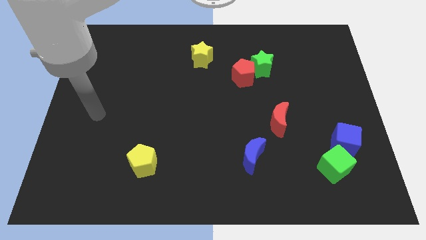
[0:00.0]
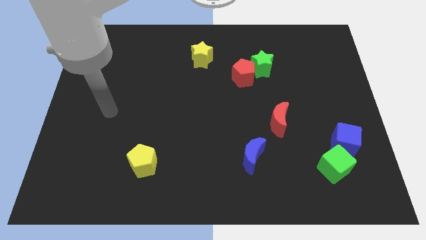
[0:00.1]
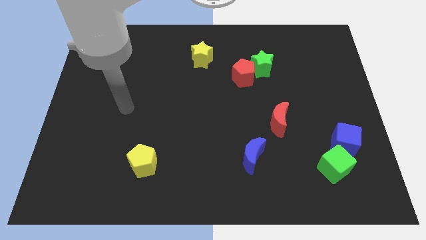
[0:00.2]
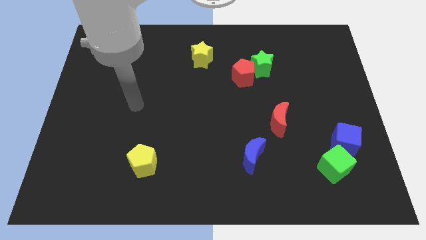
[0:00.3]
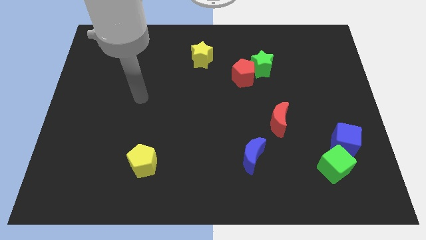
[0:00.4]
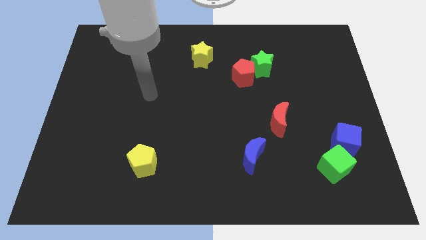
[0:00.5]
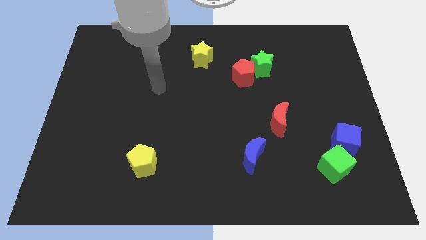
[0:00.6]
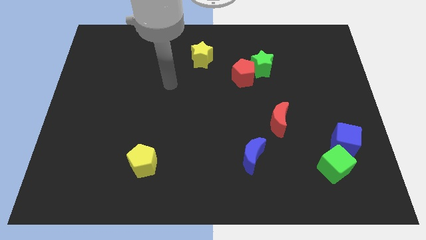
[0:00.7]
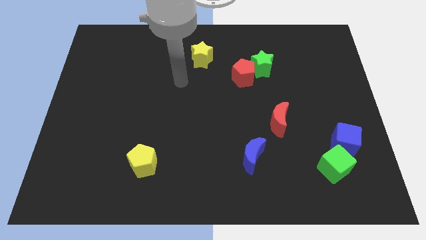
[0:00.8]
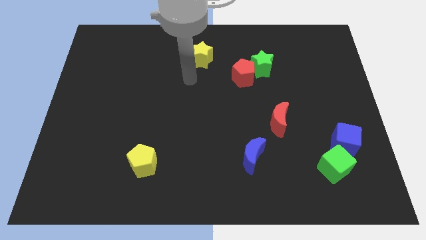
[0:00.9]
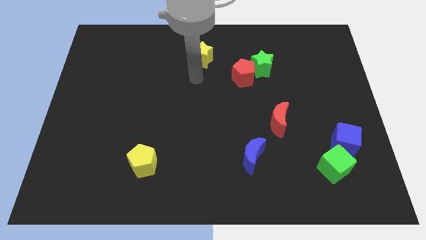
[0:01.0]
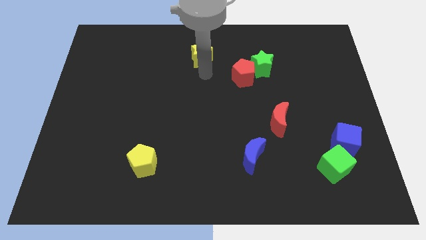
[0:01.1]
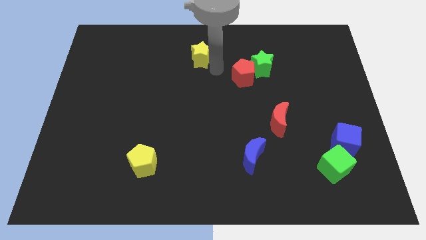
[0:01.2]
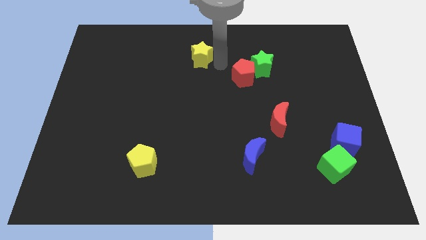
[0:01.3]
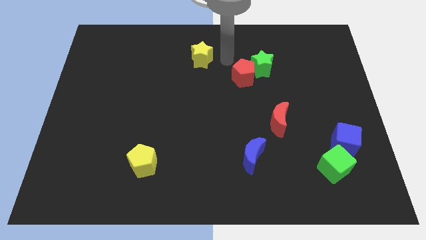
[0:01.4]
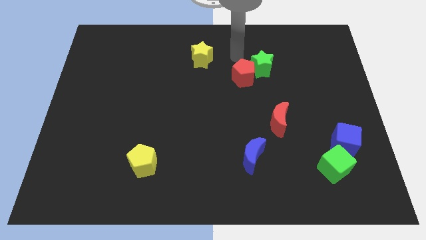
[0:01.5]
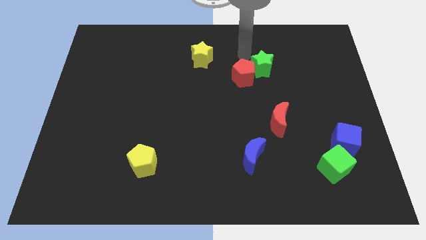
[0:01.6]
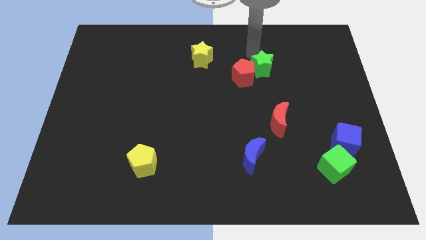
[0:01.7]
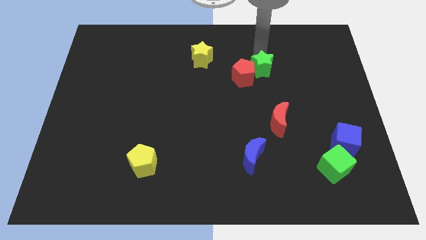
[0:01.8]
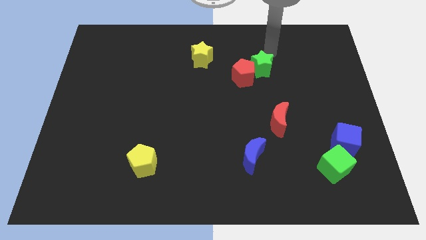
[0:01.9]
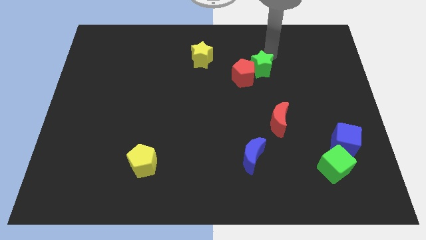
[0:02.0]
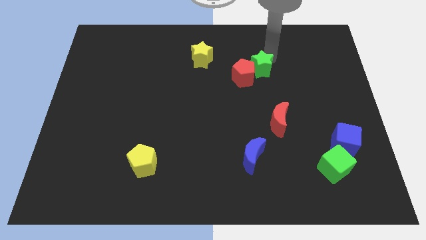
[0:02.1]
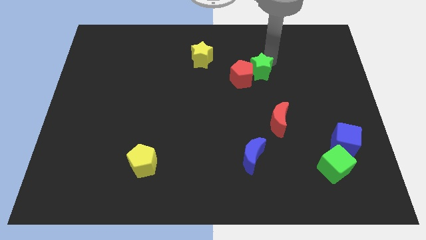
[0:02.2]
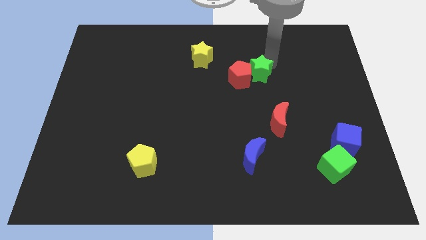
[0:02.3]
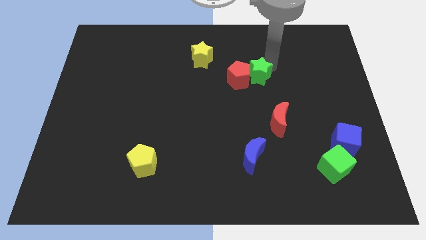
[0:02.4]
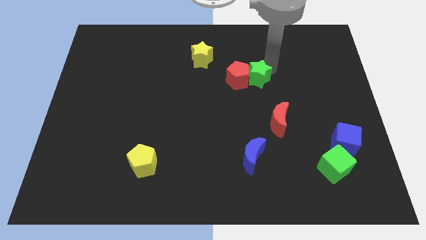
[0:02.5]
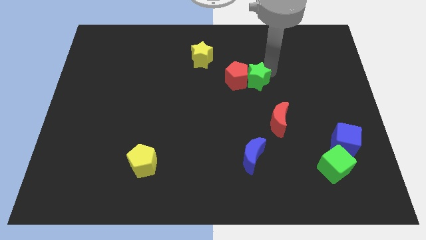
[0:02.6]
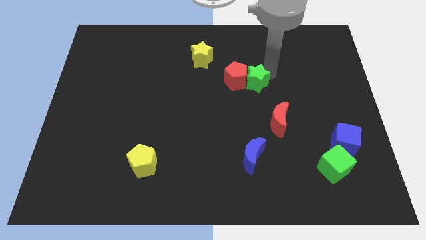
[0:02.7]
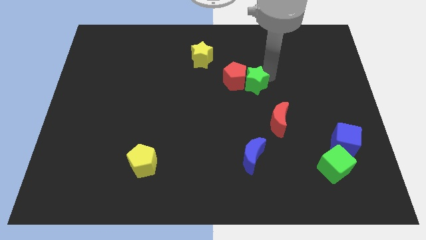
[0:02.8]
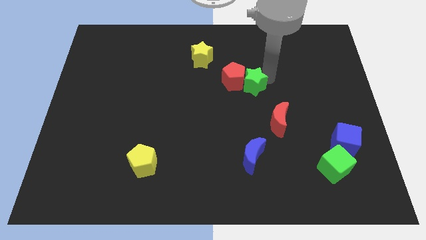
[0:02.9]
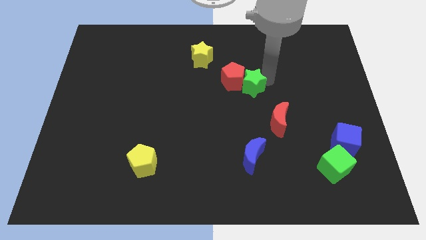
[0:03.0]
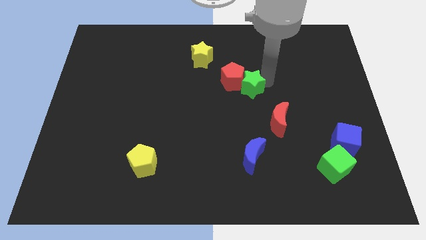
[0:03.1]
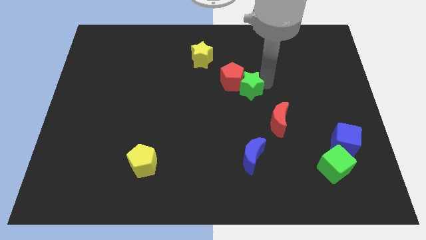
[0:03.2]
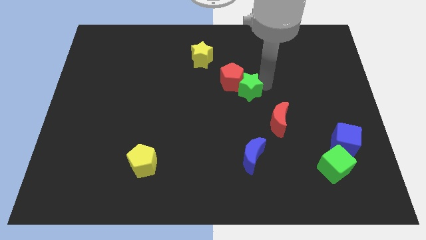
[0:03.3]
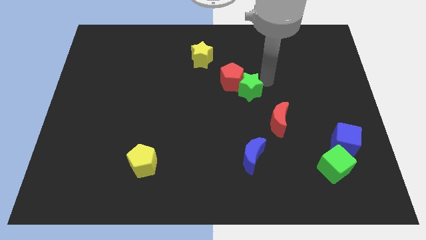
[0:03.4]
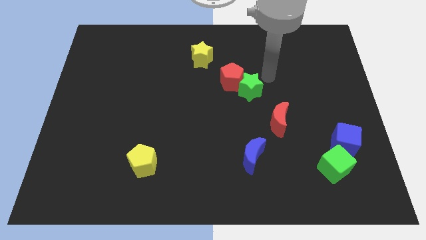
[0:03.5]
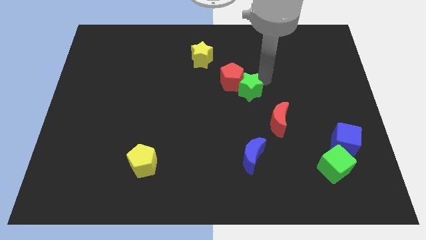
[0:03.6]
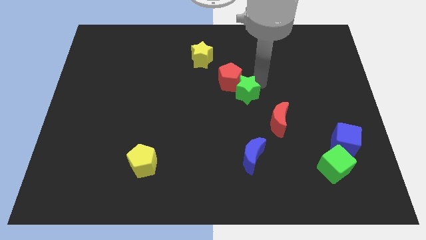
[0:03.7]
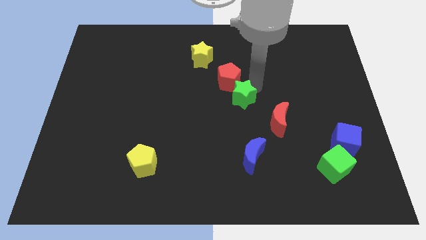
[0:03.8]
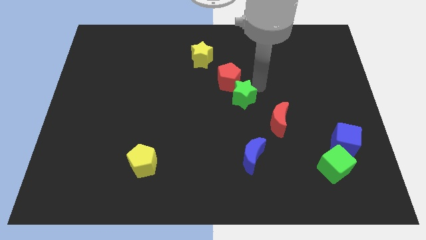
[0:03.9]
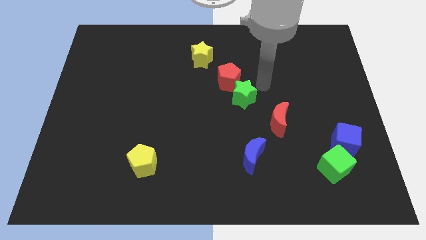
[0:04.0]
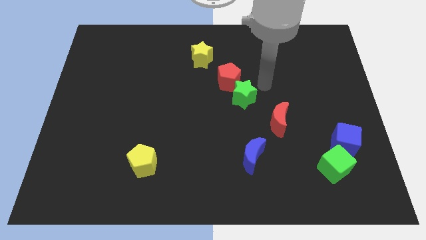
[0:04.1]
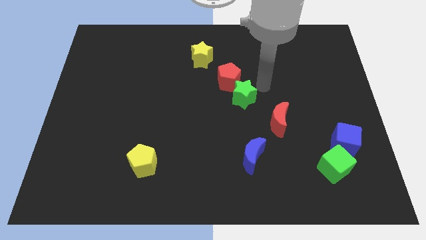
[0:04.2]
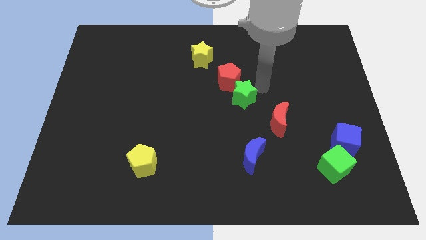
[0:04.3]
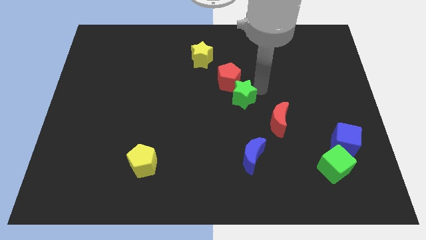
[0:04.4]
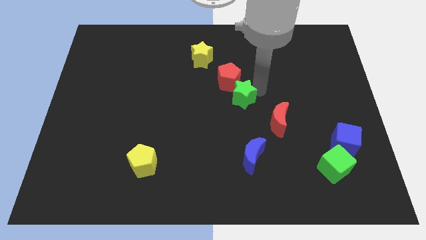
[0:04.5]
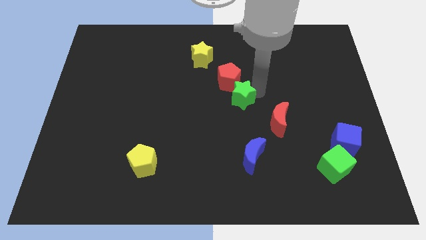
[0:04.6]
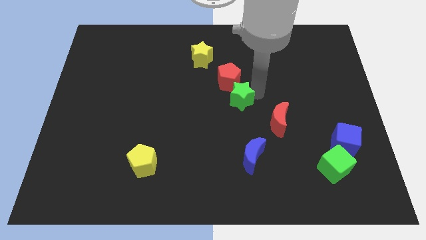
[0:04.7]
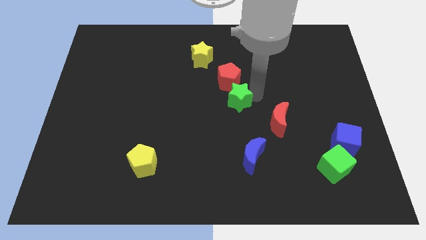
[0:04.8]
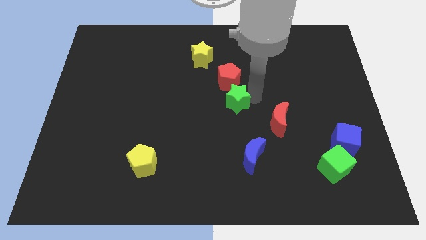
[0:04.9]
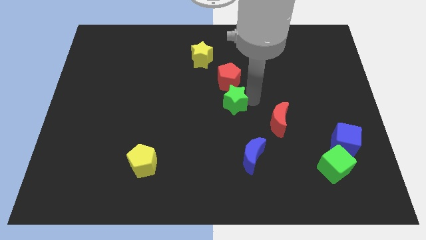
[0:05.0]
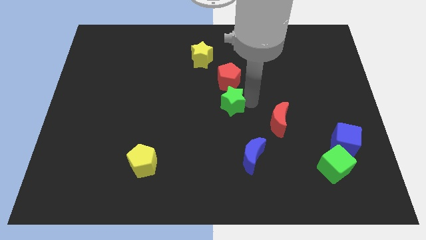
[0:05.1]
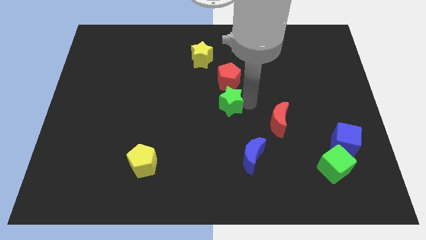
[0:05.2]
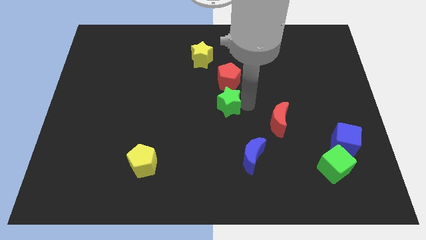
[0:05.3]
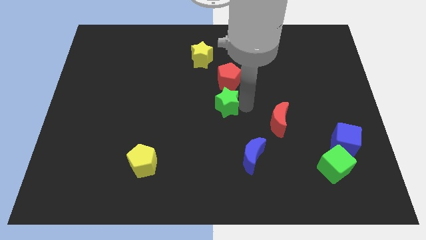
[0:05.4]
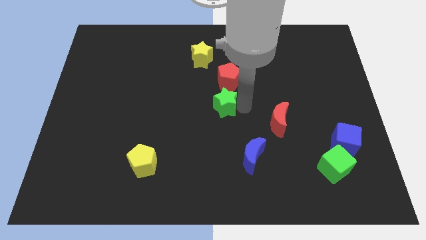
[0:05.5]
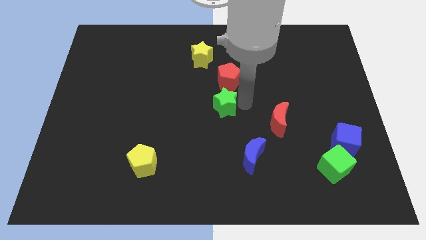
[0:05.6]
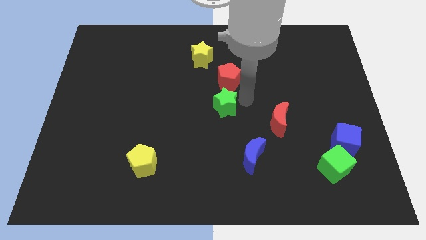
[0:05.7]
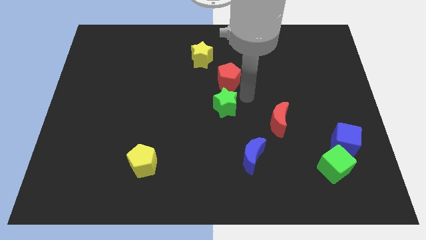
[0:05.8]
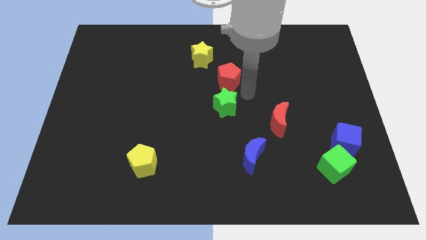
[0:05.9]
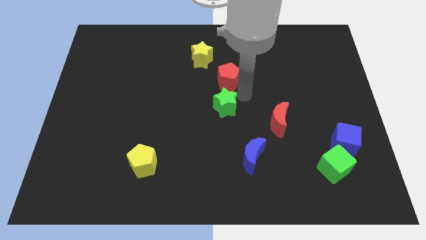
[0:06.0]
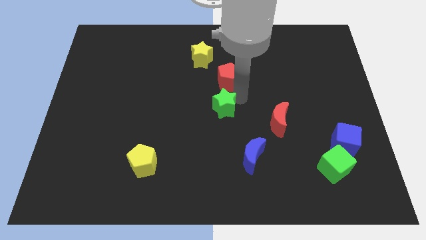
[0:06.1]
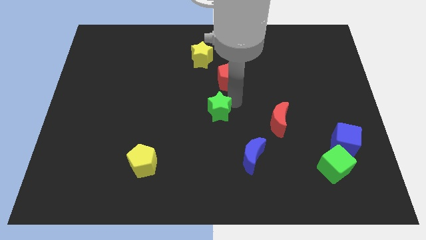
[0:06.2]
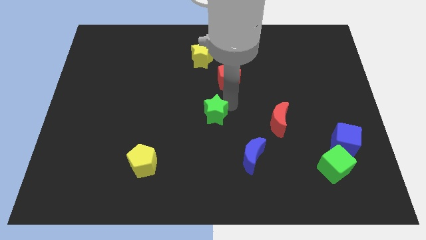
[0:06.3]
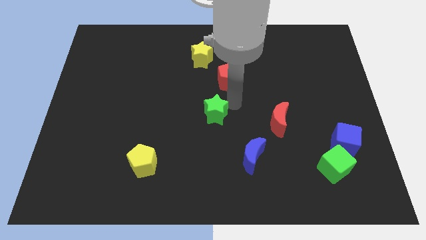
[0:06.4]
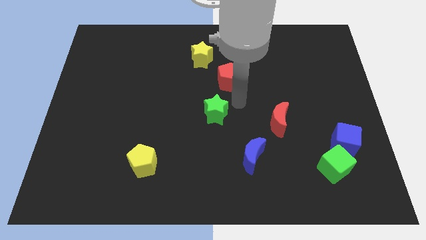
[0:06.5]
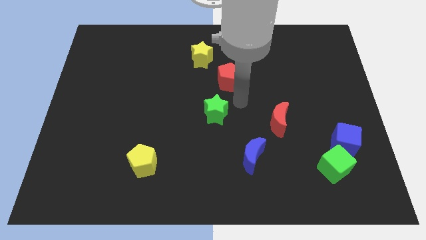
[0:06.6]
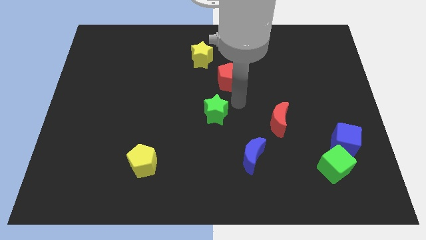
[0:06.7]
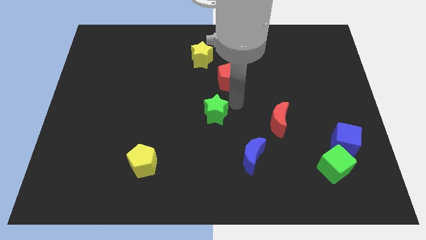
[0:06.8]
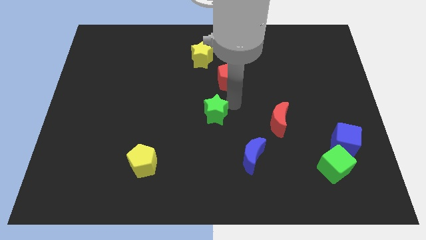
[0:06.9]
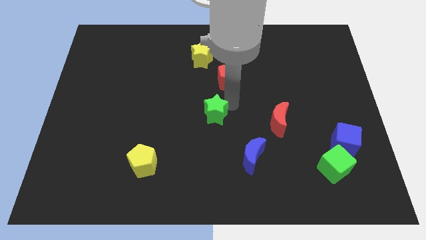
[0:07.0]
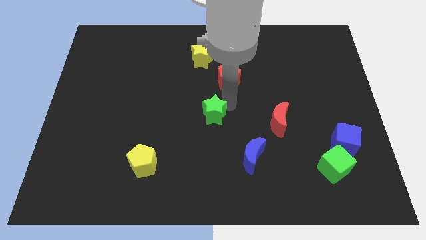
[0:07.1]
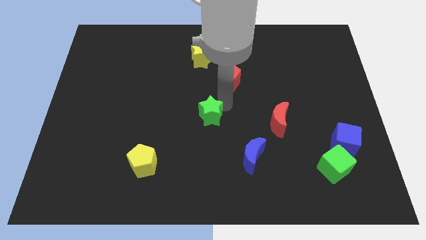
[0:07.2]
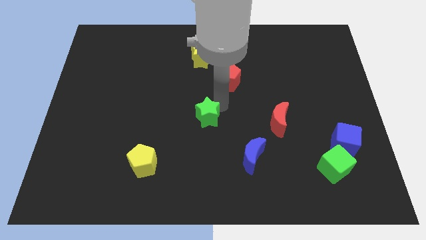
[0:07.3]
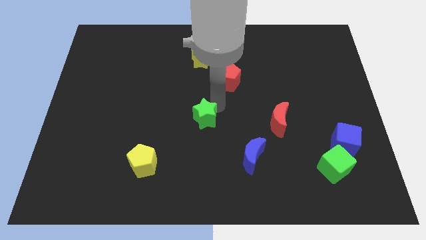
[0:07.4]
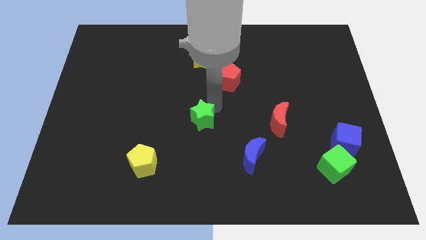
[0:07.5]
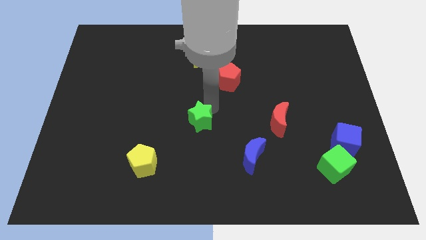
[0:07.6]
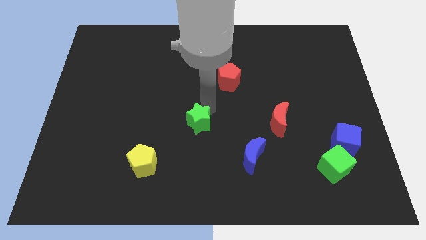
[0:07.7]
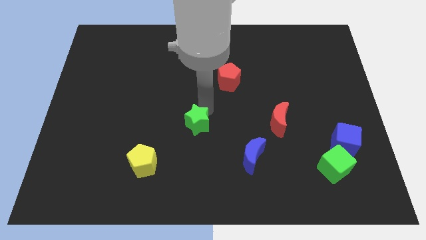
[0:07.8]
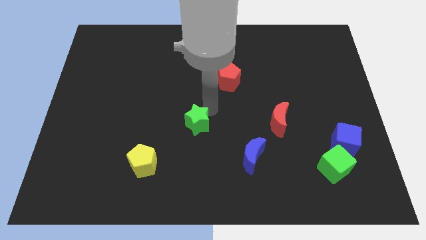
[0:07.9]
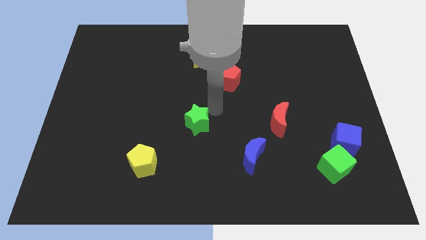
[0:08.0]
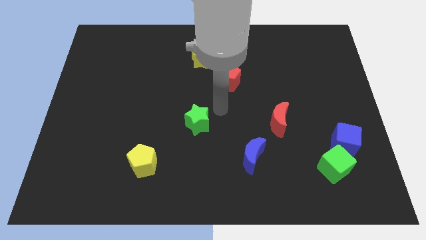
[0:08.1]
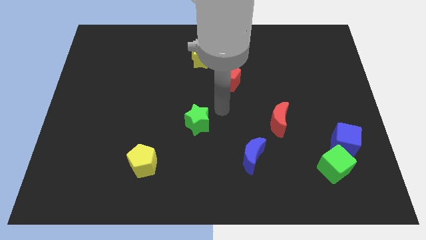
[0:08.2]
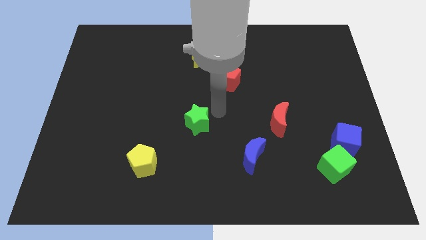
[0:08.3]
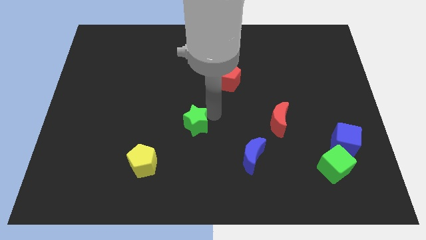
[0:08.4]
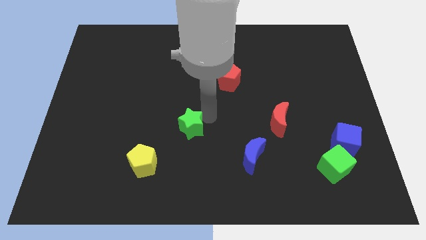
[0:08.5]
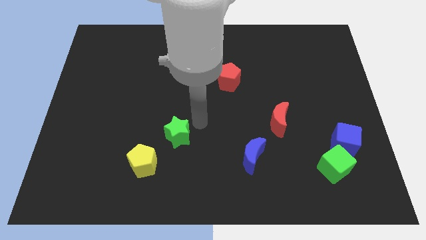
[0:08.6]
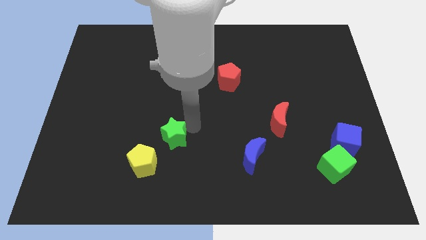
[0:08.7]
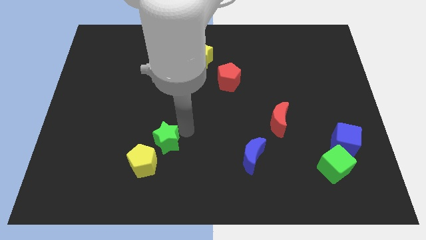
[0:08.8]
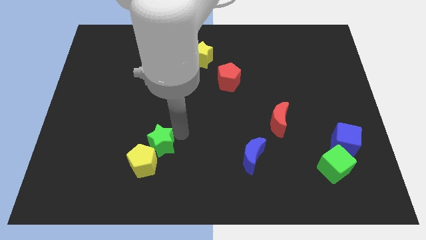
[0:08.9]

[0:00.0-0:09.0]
slide the green star close to the yellow pentagon
